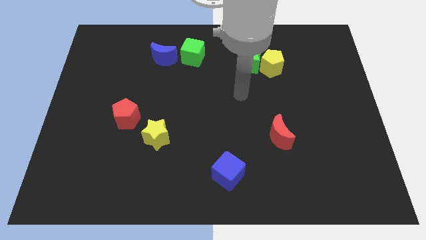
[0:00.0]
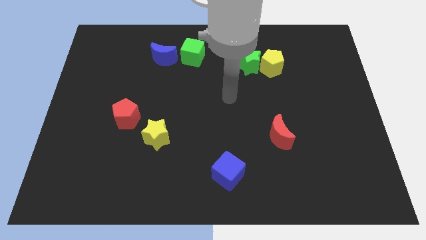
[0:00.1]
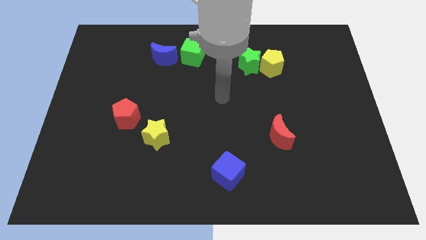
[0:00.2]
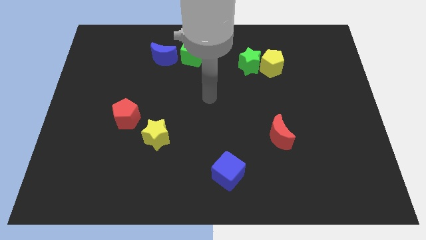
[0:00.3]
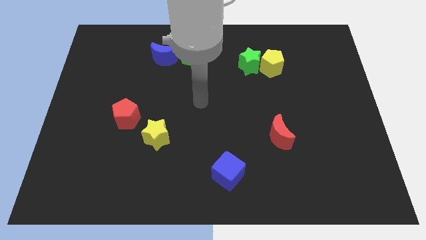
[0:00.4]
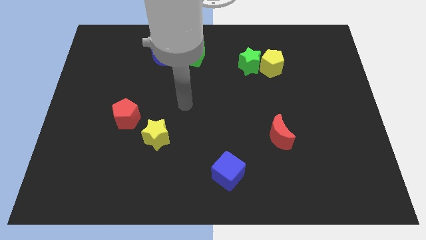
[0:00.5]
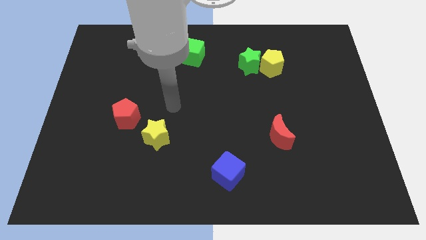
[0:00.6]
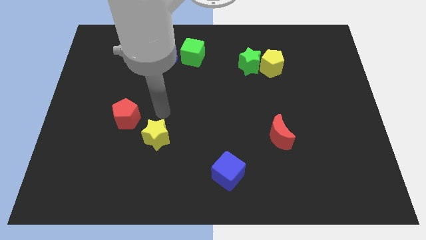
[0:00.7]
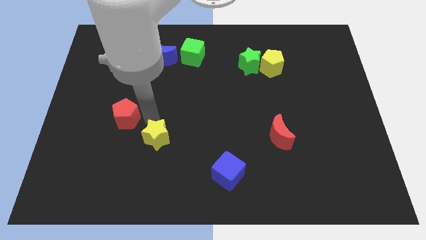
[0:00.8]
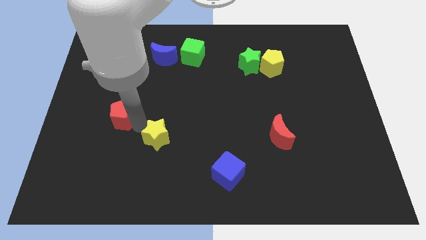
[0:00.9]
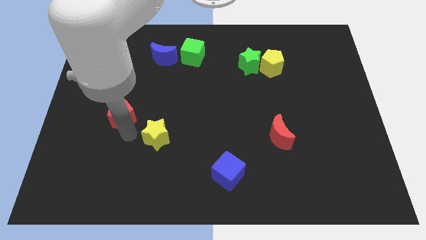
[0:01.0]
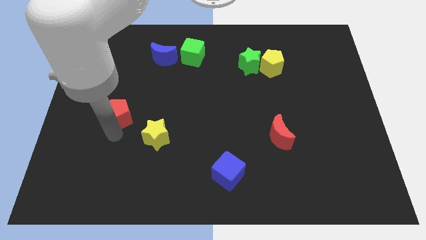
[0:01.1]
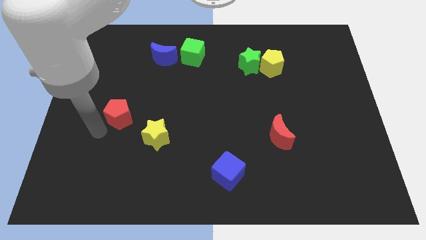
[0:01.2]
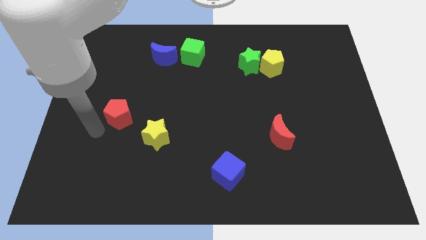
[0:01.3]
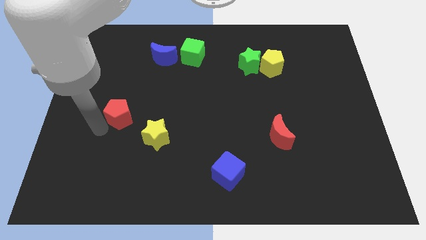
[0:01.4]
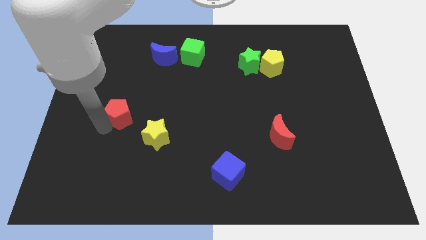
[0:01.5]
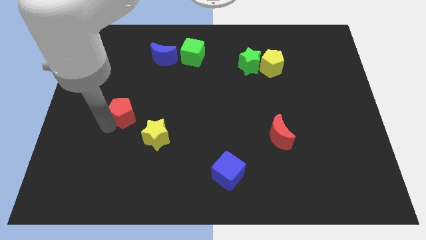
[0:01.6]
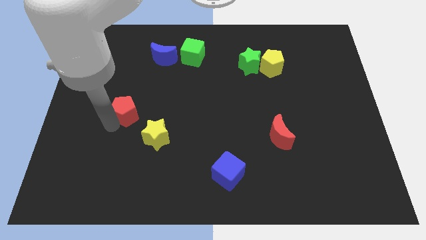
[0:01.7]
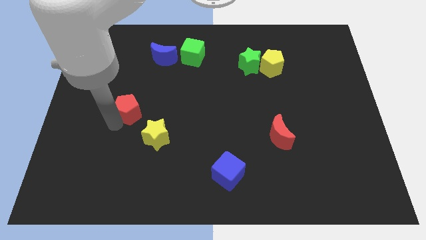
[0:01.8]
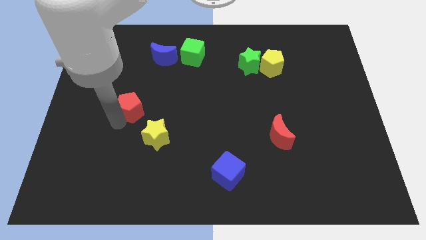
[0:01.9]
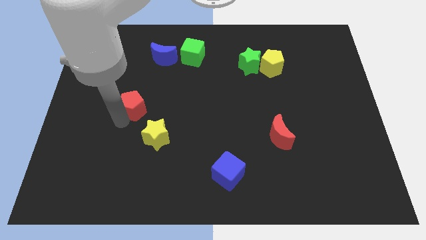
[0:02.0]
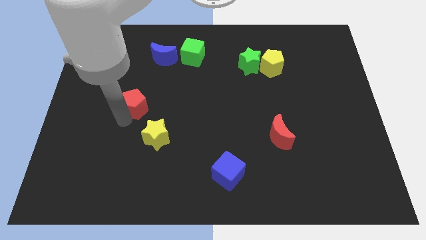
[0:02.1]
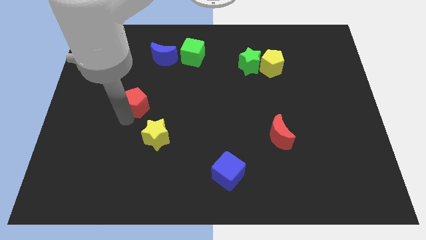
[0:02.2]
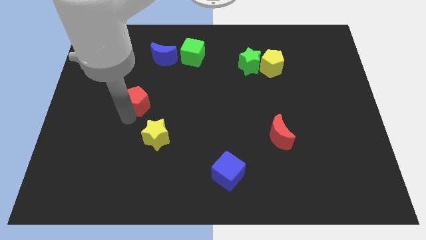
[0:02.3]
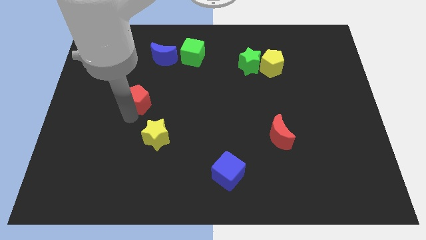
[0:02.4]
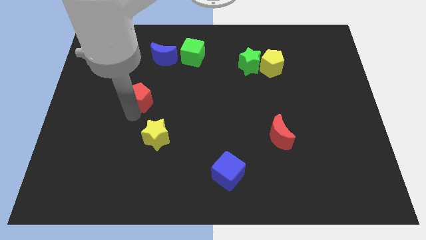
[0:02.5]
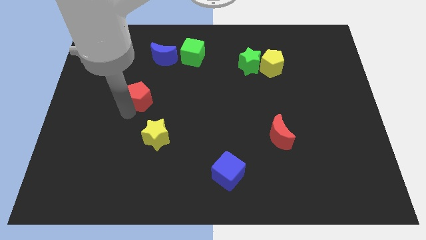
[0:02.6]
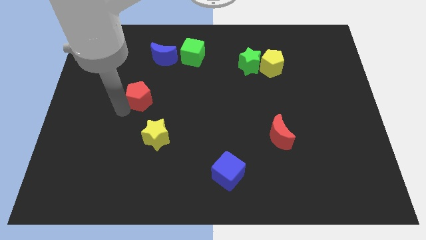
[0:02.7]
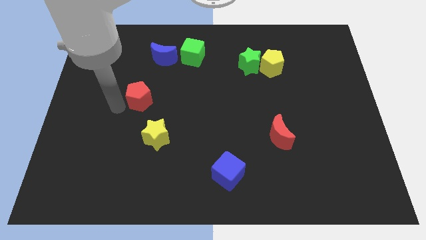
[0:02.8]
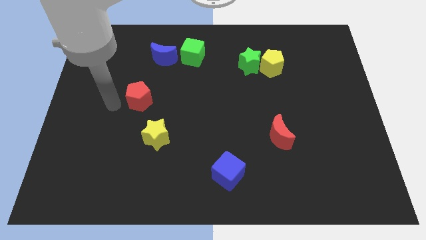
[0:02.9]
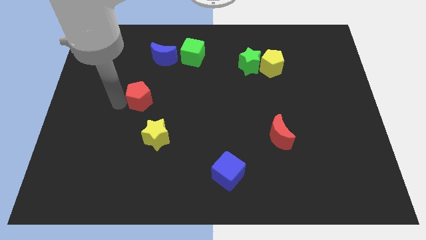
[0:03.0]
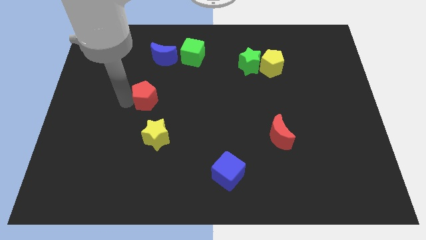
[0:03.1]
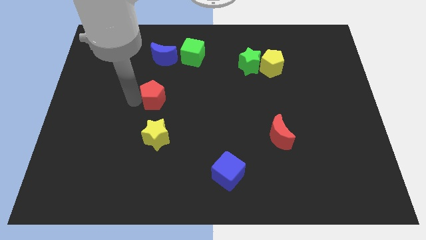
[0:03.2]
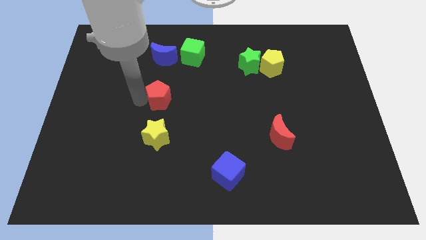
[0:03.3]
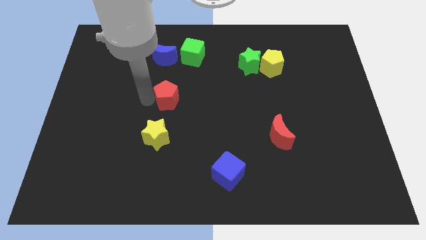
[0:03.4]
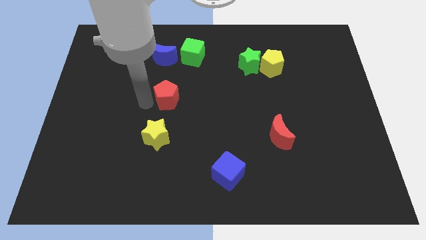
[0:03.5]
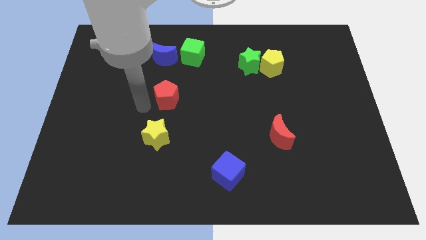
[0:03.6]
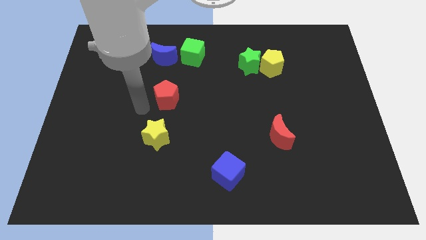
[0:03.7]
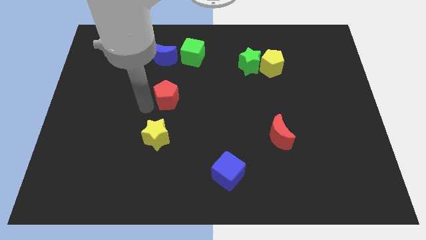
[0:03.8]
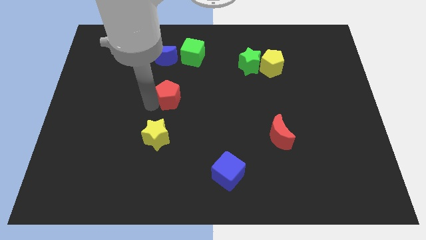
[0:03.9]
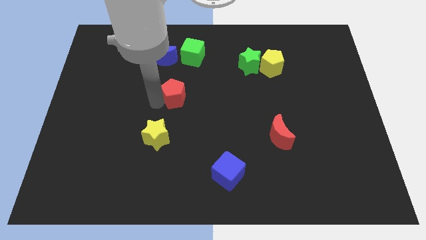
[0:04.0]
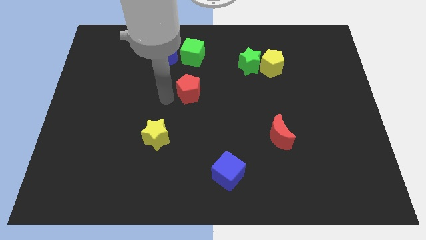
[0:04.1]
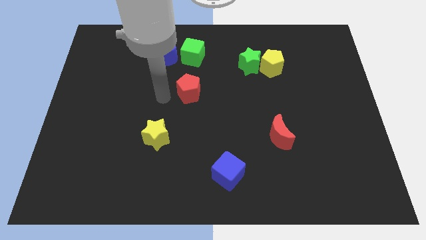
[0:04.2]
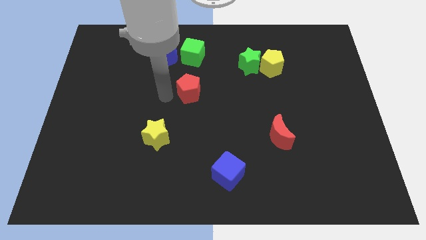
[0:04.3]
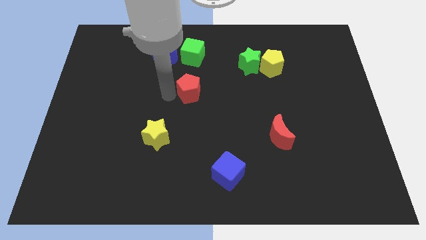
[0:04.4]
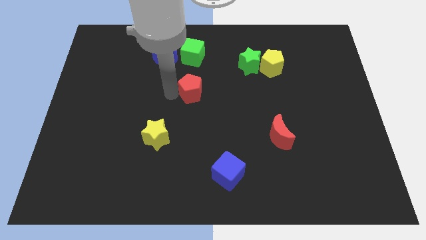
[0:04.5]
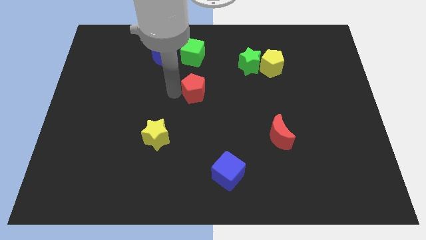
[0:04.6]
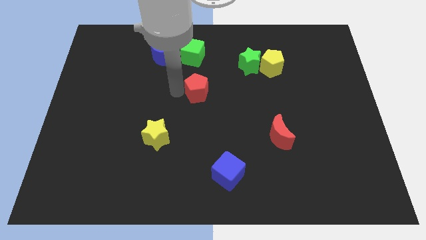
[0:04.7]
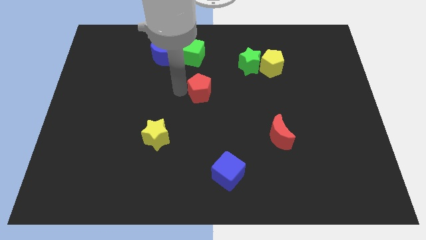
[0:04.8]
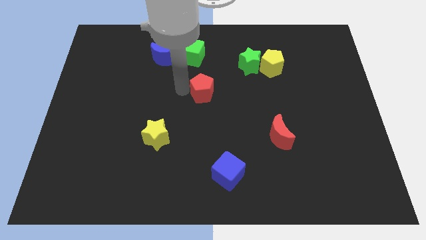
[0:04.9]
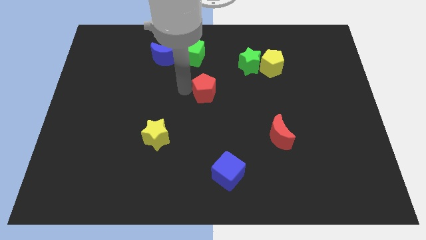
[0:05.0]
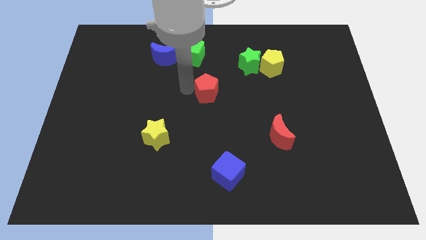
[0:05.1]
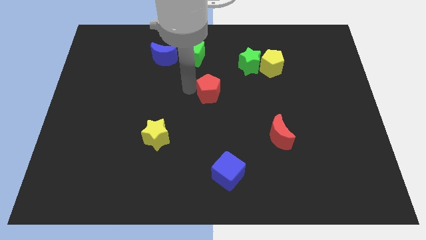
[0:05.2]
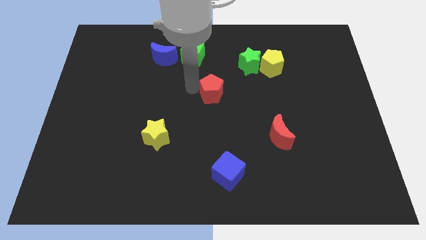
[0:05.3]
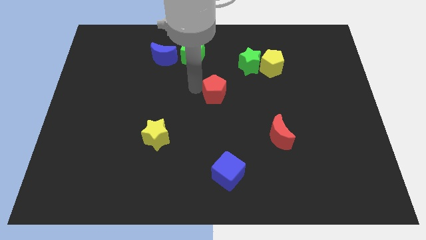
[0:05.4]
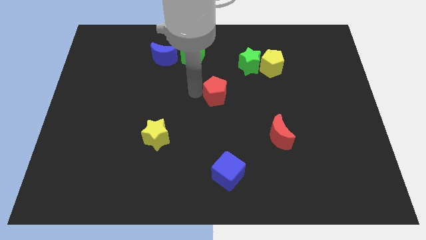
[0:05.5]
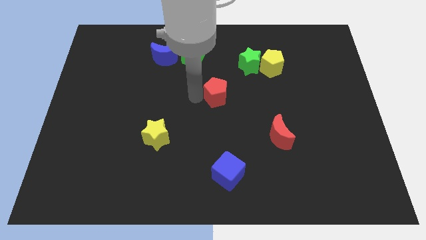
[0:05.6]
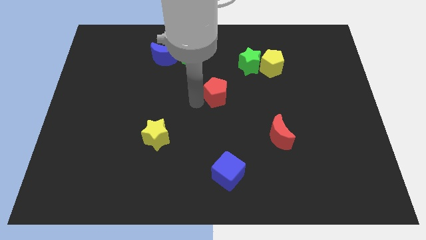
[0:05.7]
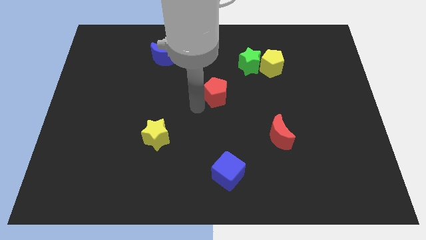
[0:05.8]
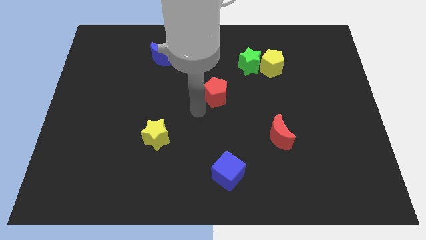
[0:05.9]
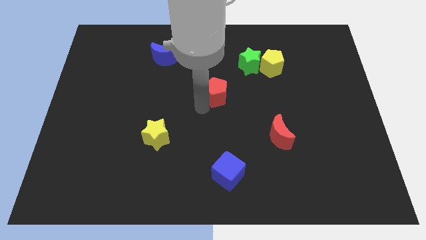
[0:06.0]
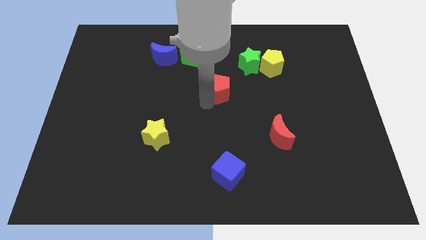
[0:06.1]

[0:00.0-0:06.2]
slide the red pentagon to the bottom left of the green star
